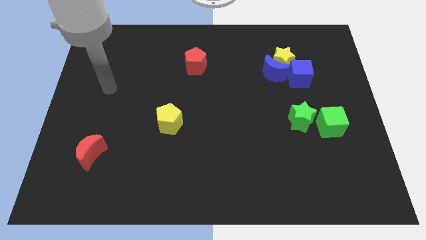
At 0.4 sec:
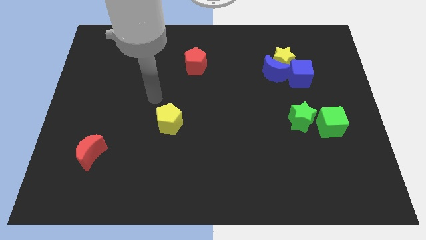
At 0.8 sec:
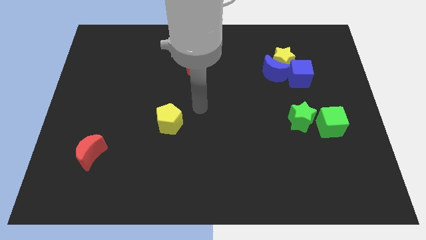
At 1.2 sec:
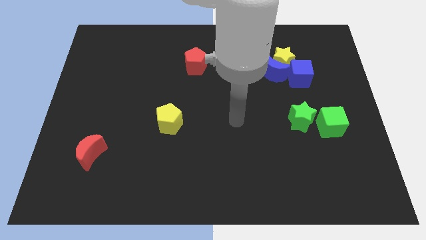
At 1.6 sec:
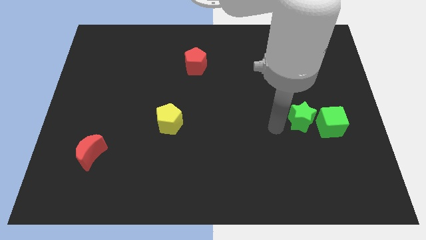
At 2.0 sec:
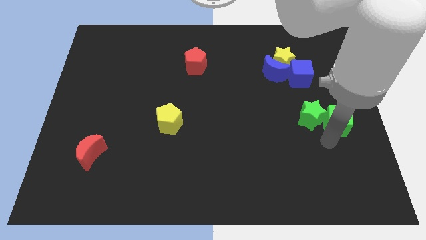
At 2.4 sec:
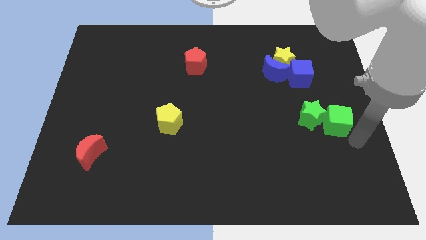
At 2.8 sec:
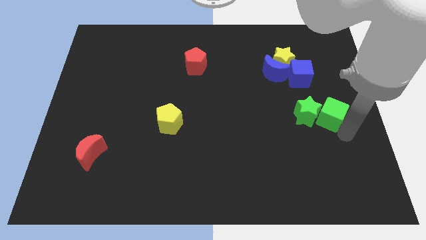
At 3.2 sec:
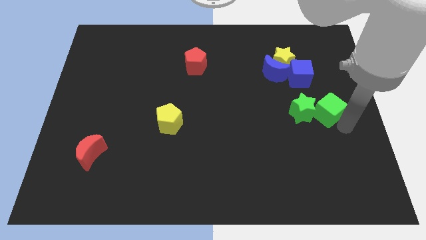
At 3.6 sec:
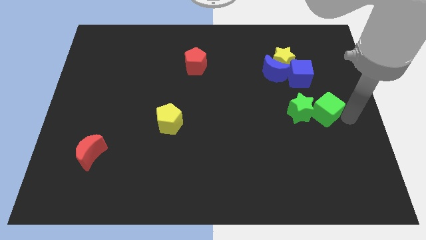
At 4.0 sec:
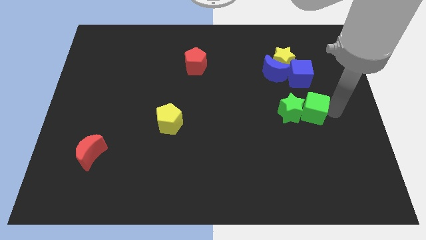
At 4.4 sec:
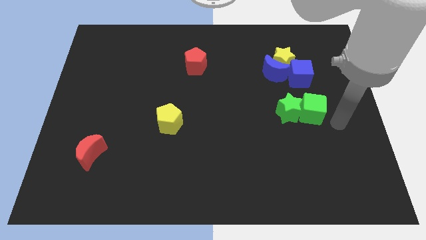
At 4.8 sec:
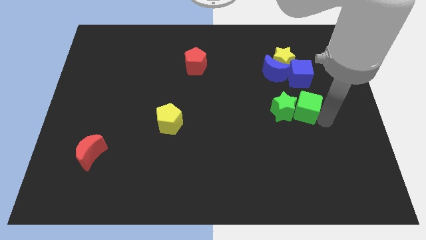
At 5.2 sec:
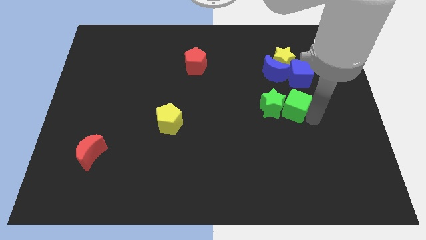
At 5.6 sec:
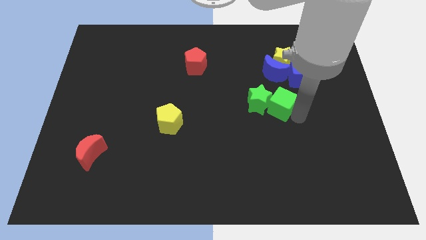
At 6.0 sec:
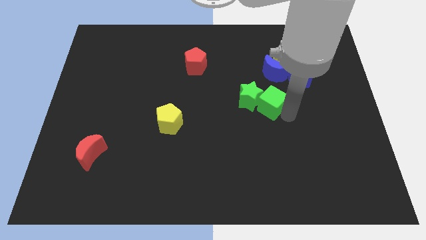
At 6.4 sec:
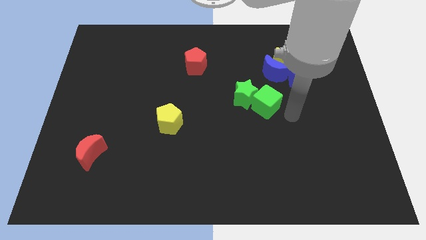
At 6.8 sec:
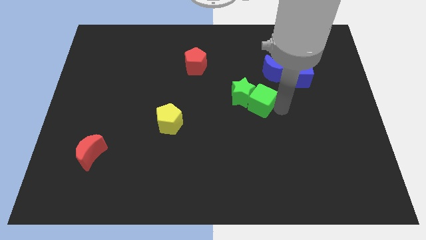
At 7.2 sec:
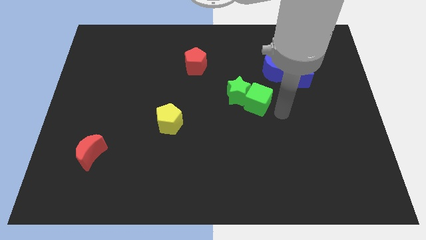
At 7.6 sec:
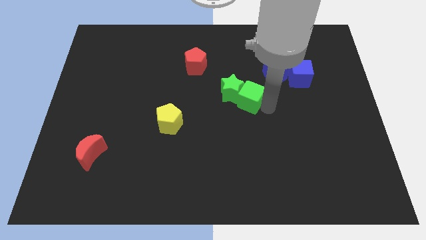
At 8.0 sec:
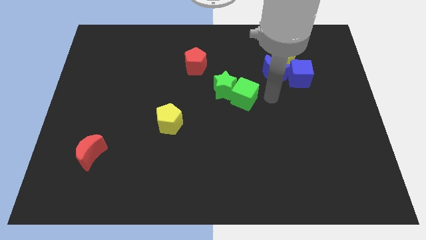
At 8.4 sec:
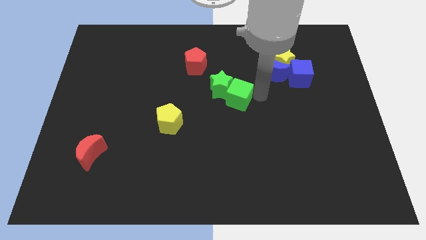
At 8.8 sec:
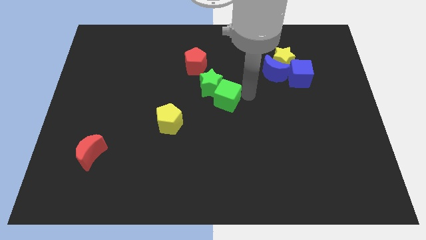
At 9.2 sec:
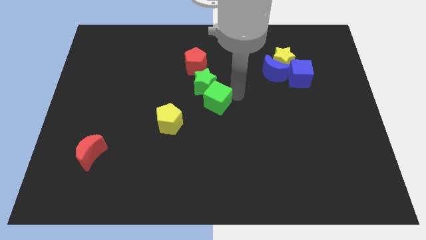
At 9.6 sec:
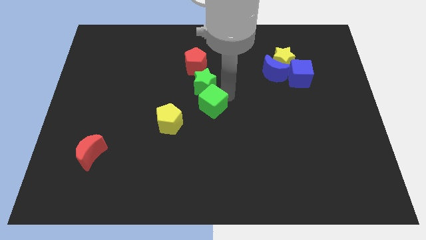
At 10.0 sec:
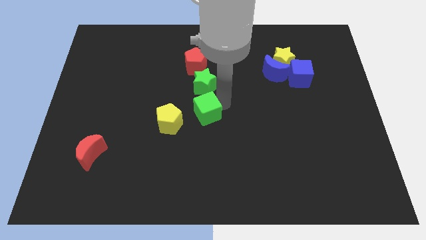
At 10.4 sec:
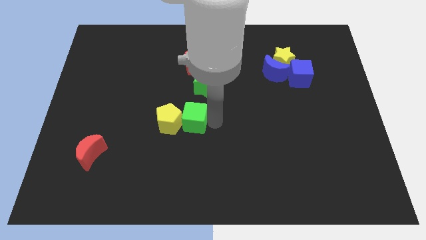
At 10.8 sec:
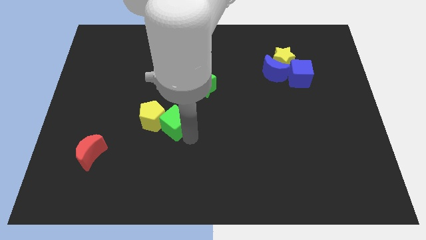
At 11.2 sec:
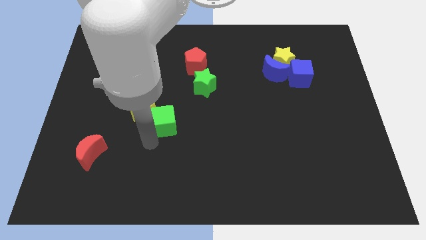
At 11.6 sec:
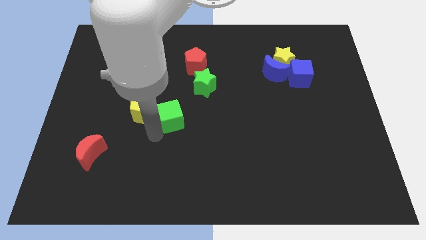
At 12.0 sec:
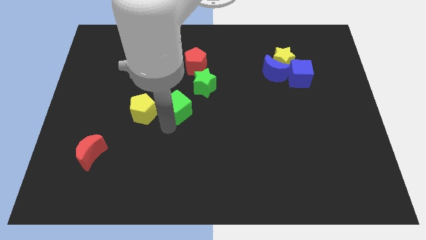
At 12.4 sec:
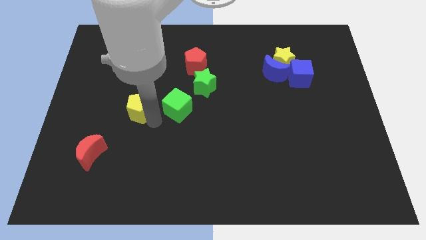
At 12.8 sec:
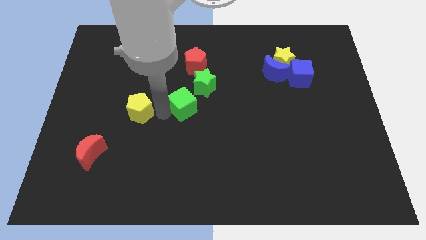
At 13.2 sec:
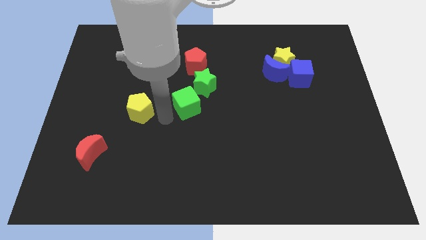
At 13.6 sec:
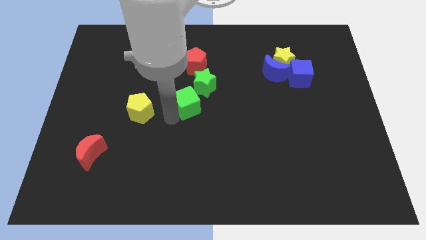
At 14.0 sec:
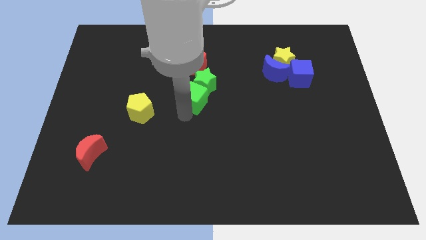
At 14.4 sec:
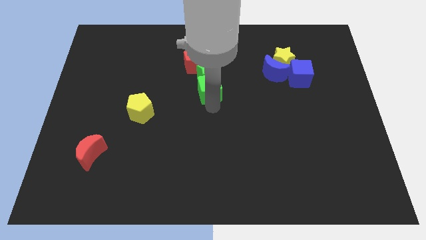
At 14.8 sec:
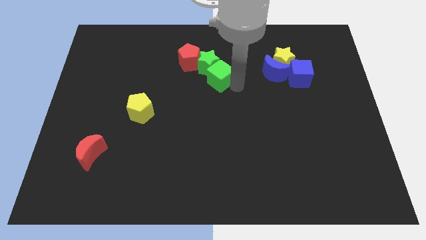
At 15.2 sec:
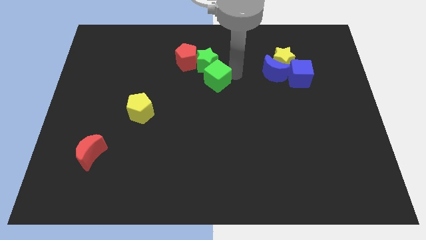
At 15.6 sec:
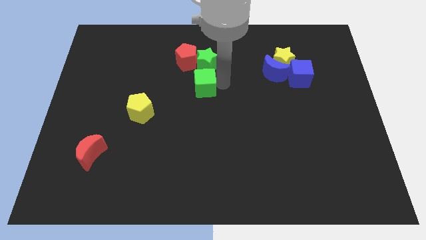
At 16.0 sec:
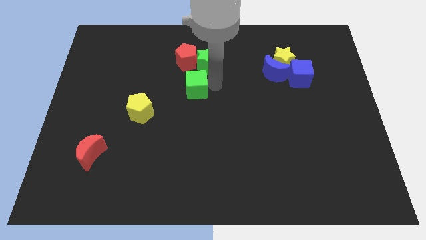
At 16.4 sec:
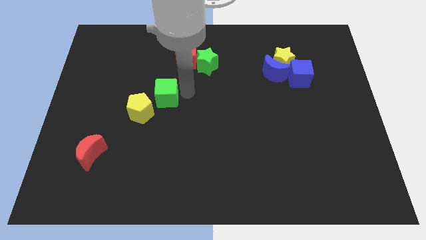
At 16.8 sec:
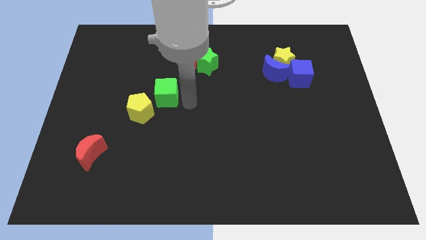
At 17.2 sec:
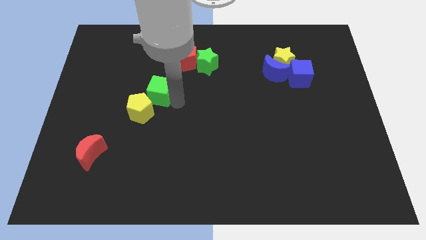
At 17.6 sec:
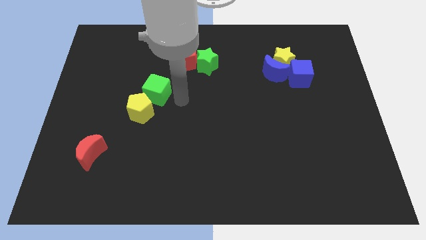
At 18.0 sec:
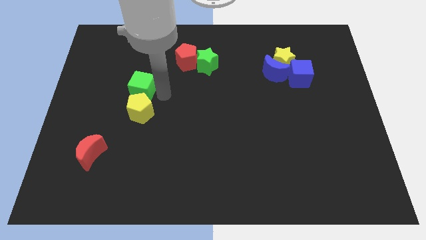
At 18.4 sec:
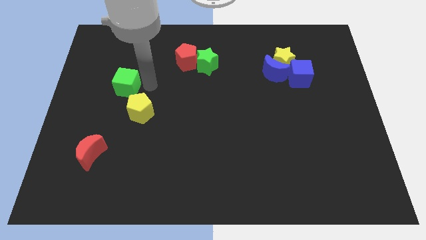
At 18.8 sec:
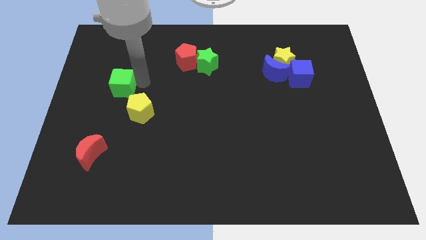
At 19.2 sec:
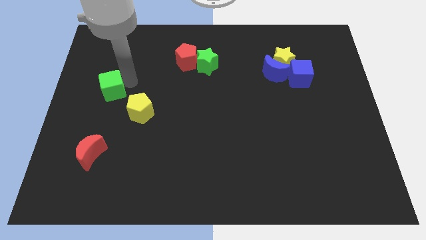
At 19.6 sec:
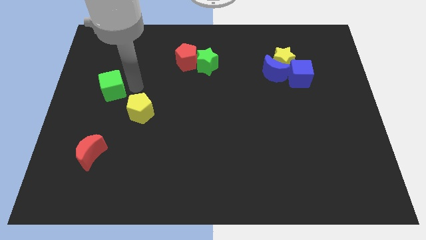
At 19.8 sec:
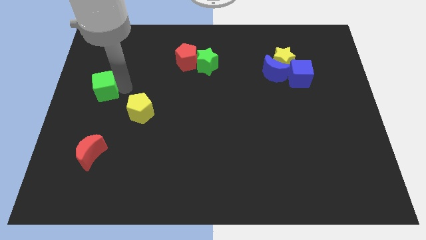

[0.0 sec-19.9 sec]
move the green cube to the left side

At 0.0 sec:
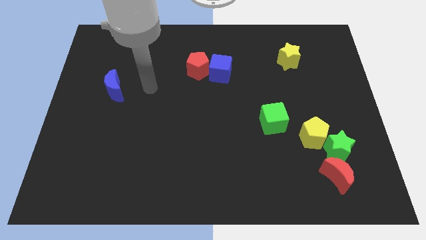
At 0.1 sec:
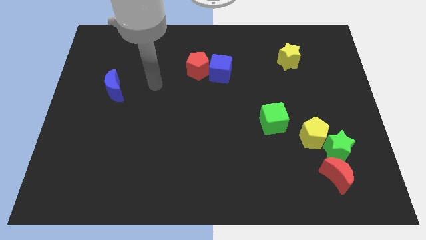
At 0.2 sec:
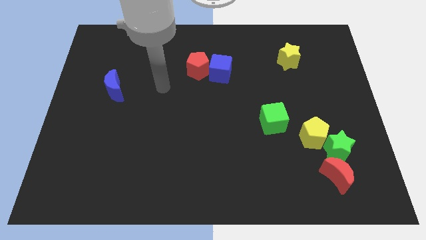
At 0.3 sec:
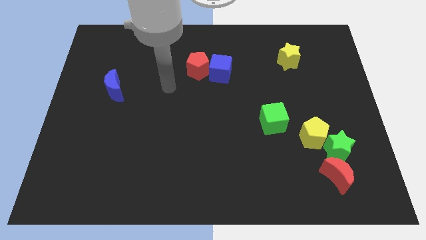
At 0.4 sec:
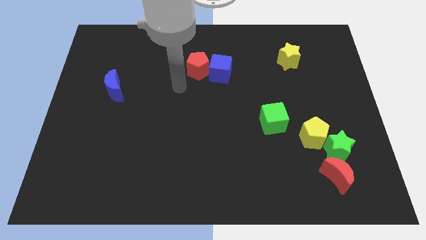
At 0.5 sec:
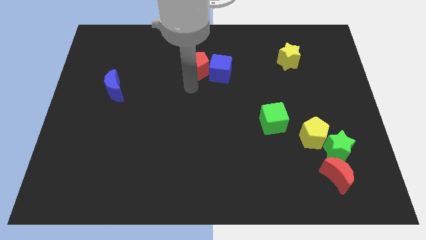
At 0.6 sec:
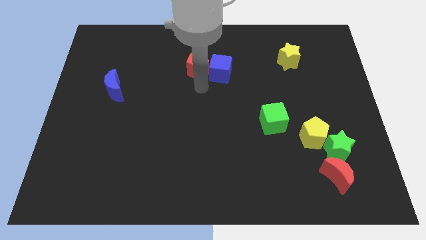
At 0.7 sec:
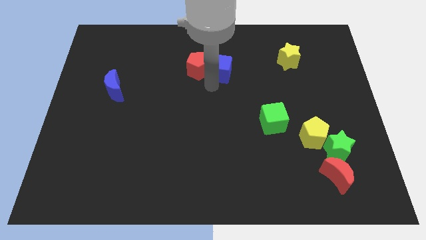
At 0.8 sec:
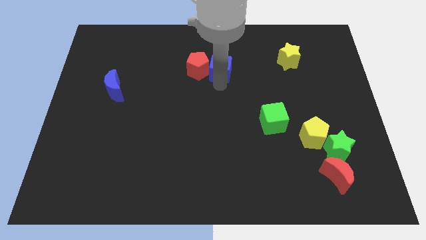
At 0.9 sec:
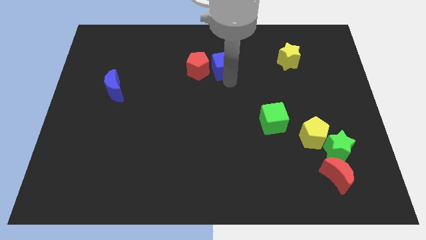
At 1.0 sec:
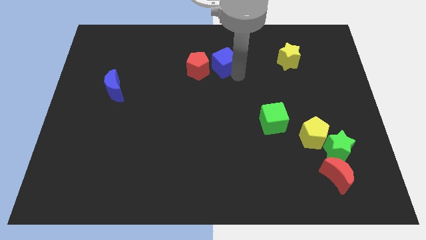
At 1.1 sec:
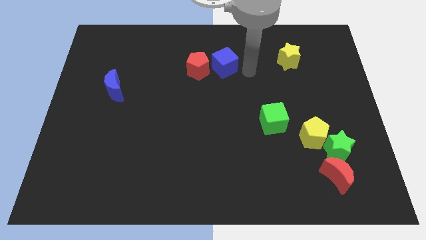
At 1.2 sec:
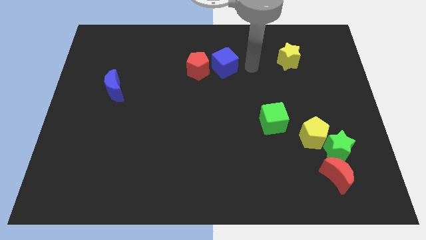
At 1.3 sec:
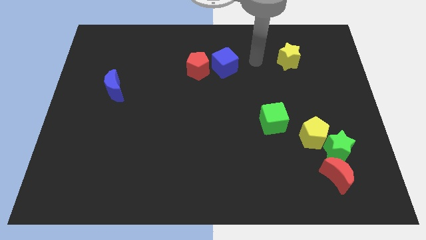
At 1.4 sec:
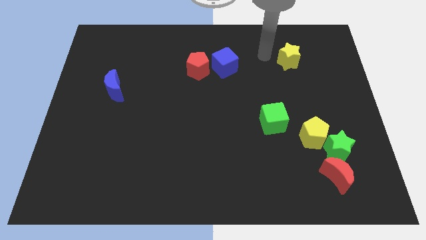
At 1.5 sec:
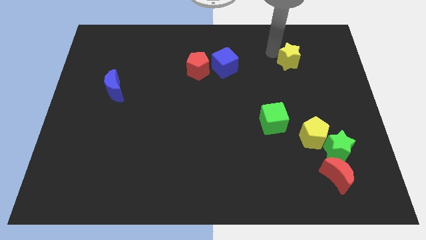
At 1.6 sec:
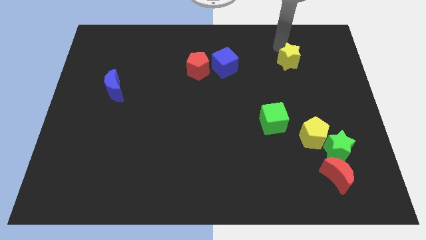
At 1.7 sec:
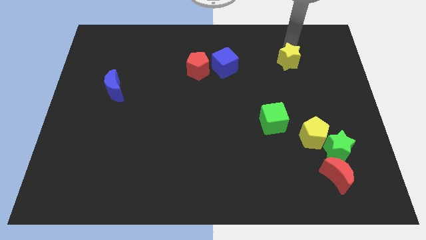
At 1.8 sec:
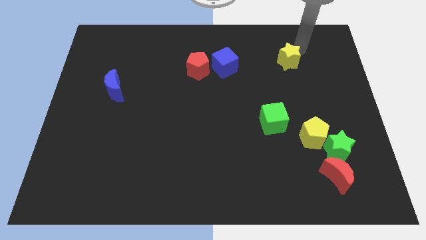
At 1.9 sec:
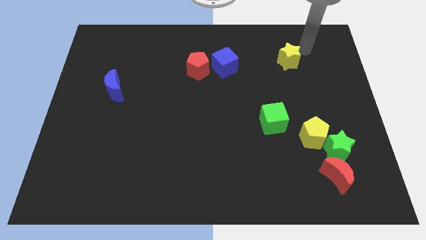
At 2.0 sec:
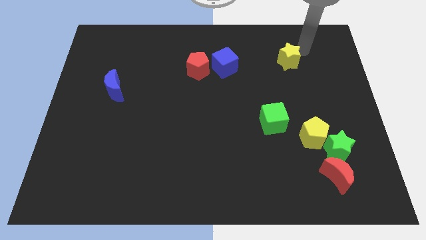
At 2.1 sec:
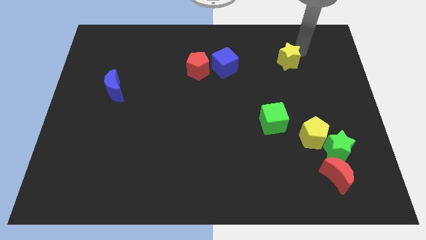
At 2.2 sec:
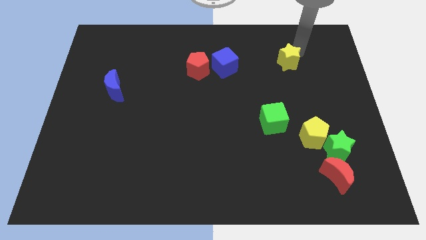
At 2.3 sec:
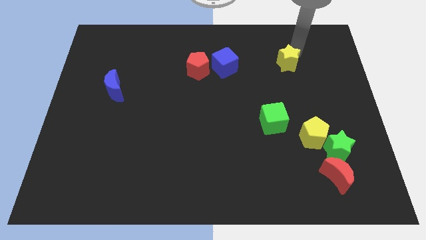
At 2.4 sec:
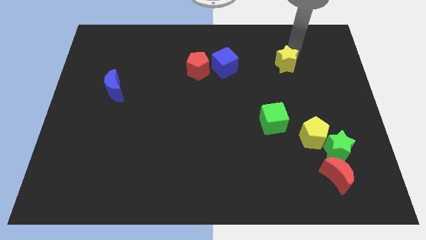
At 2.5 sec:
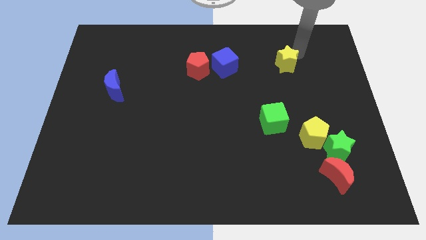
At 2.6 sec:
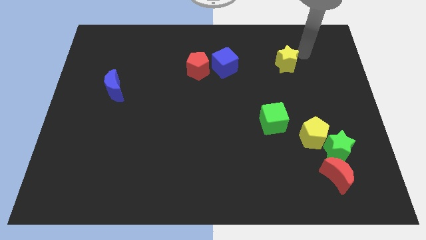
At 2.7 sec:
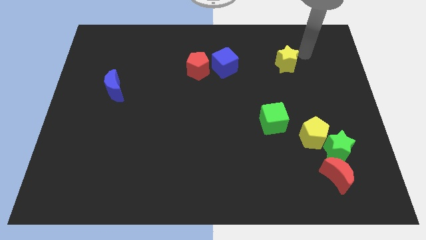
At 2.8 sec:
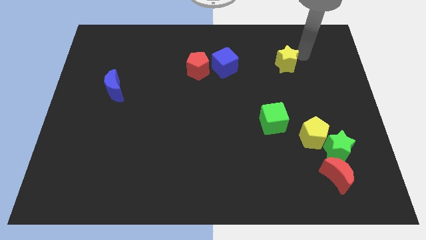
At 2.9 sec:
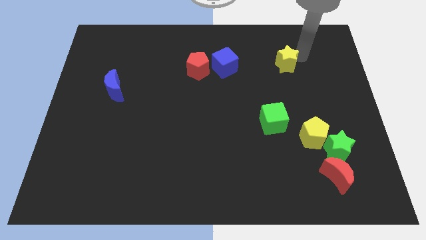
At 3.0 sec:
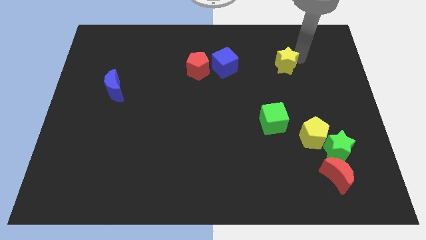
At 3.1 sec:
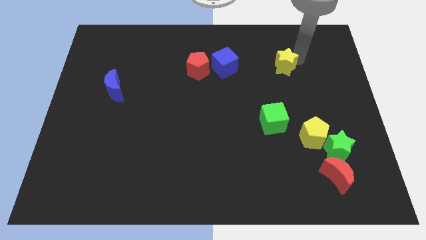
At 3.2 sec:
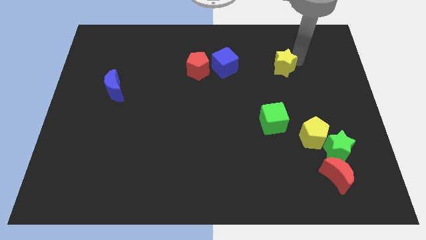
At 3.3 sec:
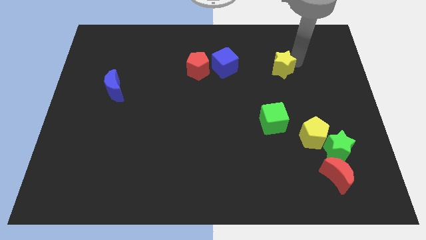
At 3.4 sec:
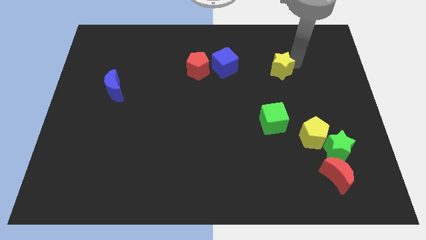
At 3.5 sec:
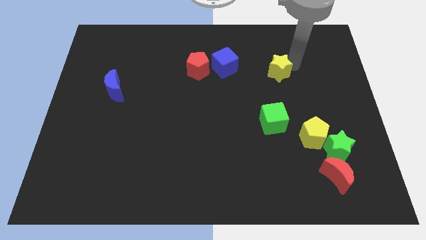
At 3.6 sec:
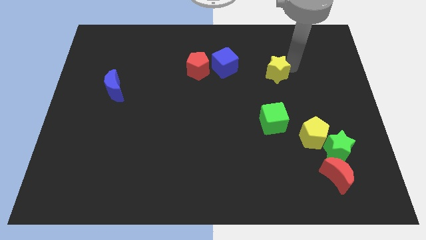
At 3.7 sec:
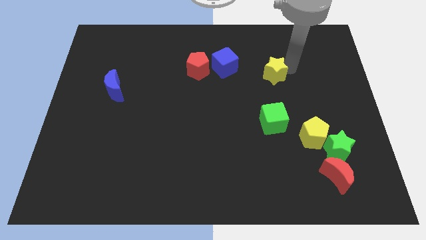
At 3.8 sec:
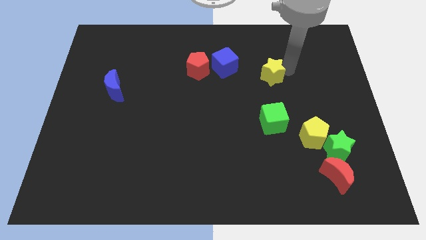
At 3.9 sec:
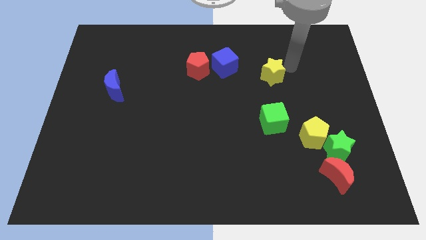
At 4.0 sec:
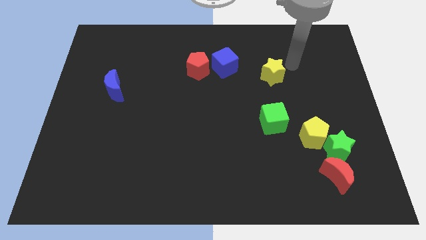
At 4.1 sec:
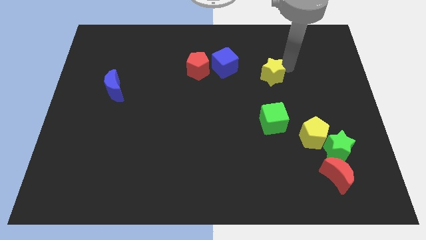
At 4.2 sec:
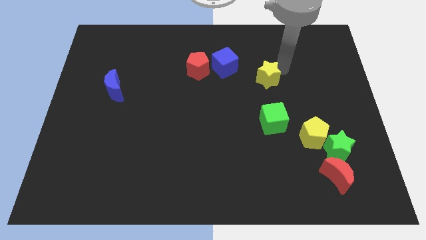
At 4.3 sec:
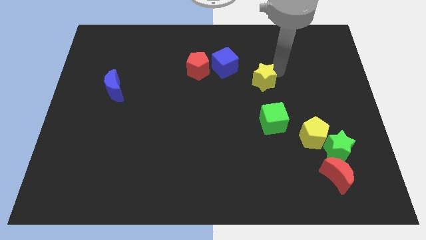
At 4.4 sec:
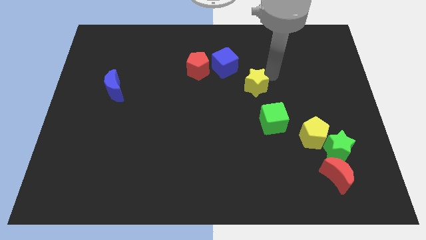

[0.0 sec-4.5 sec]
push the yellow star to the middle
